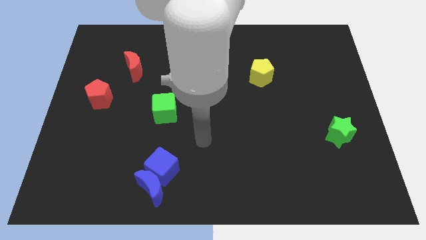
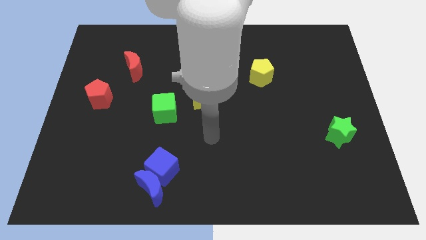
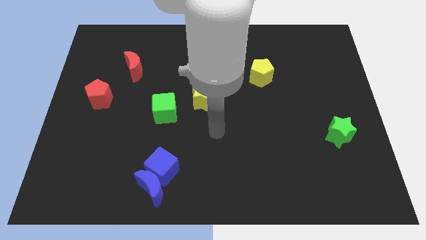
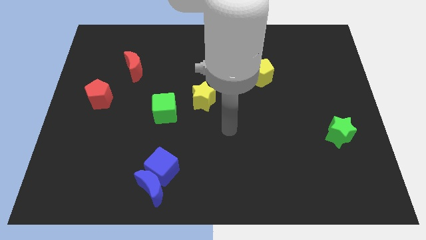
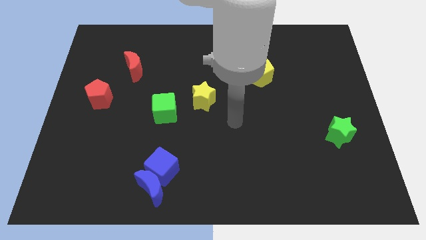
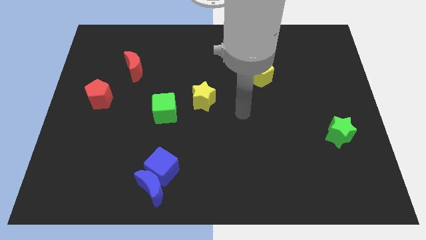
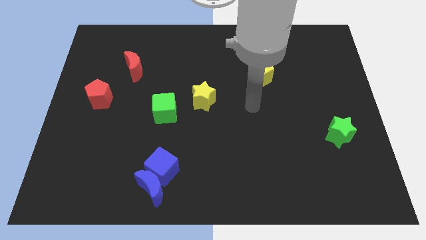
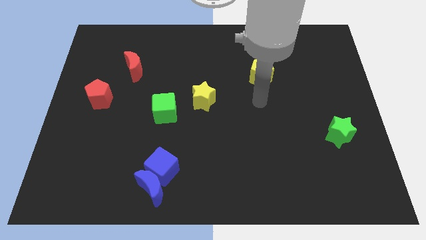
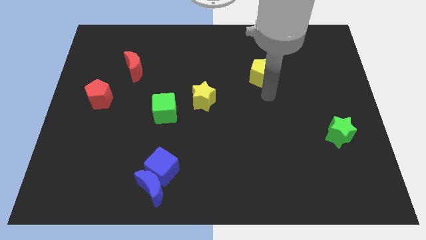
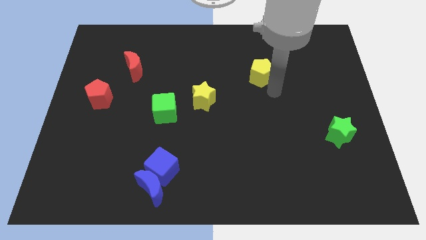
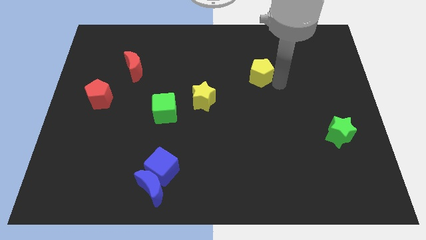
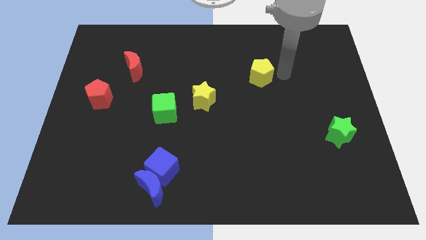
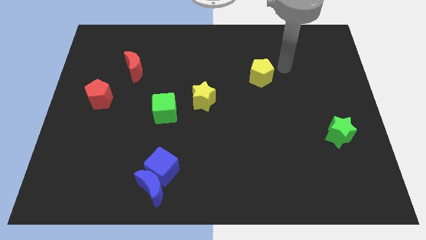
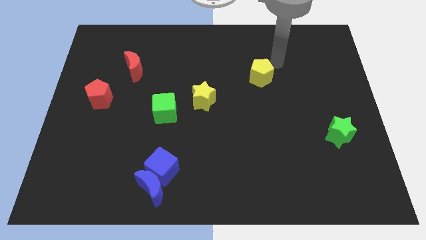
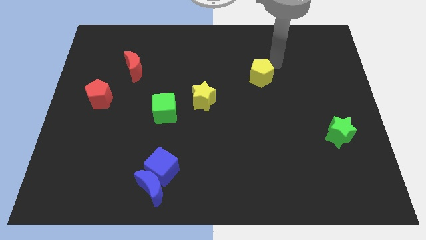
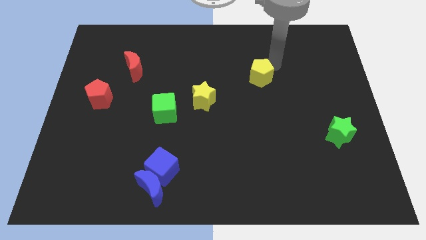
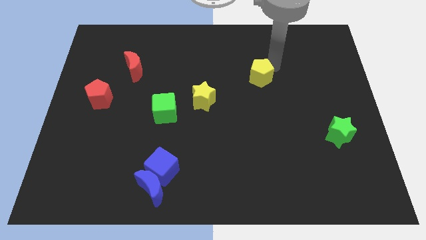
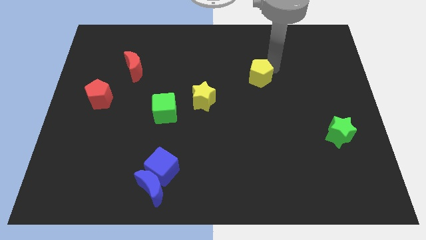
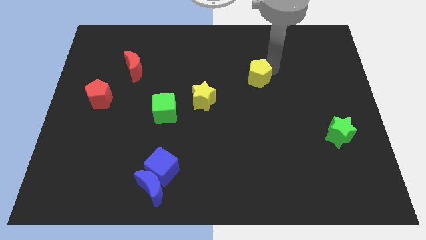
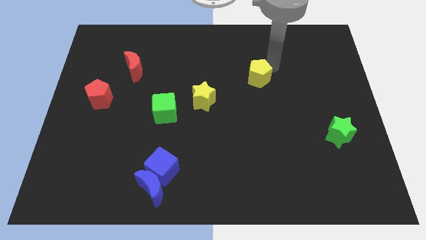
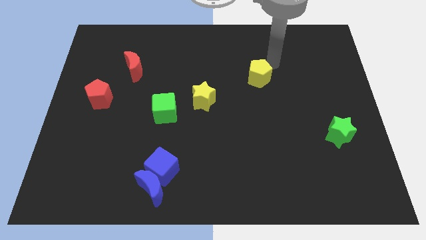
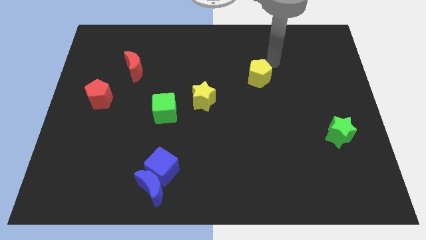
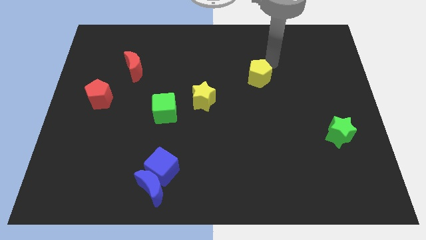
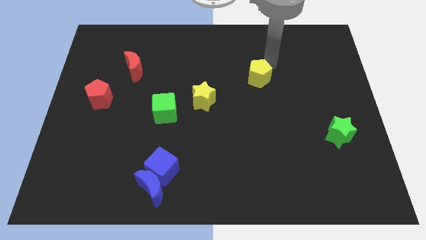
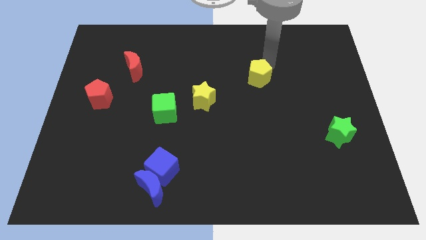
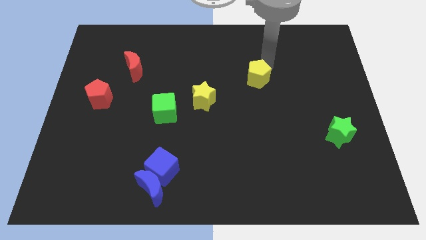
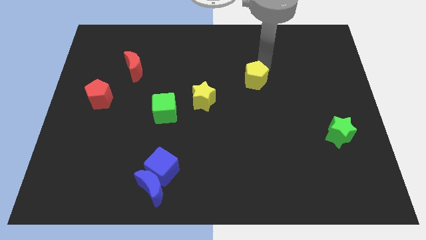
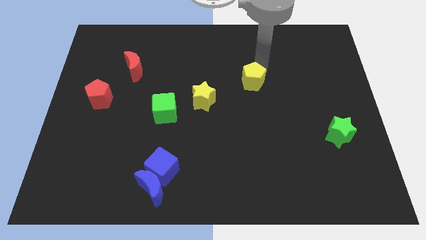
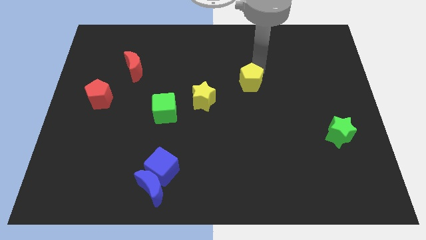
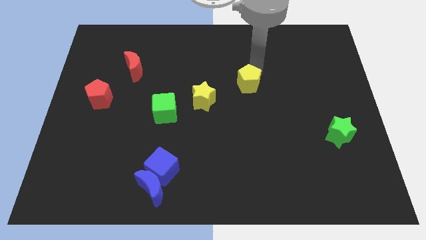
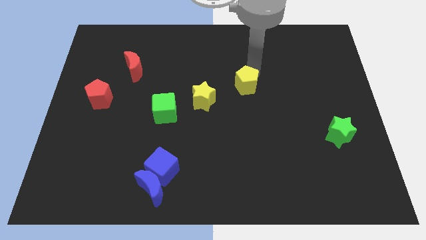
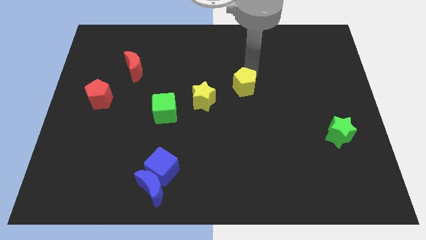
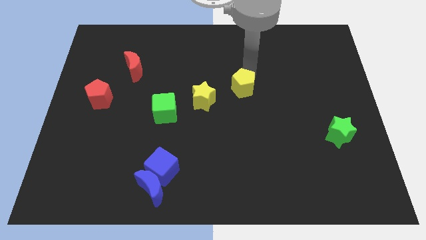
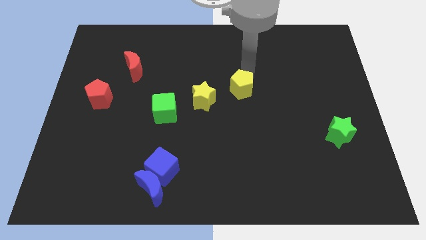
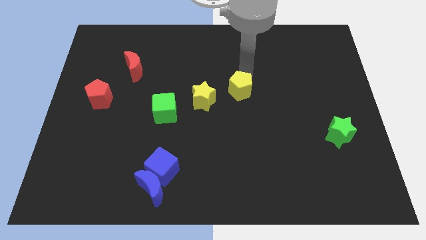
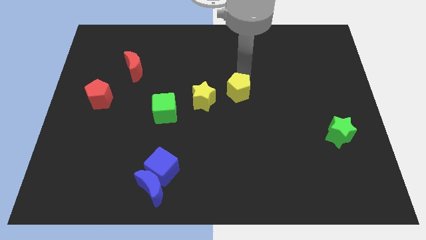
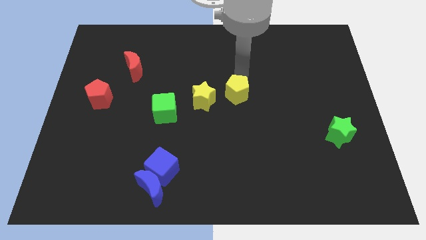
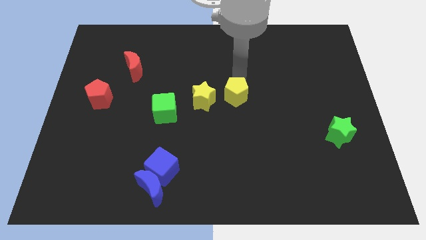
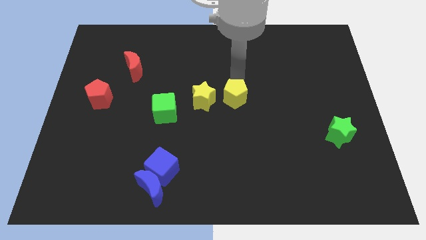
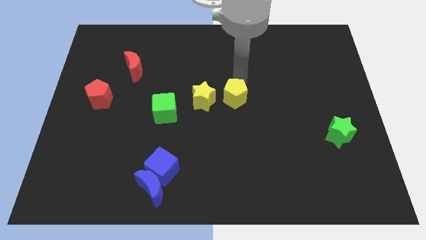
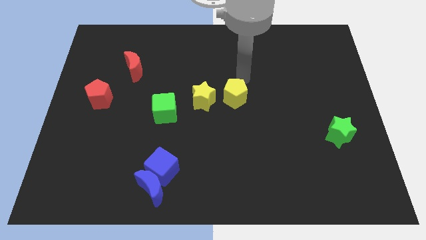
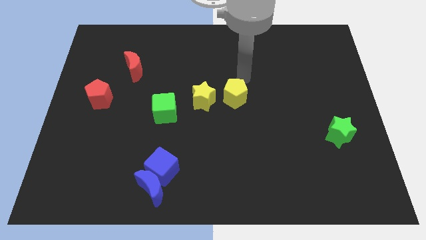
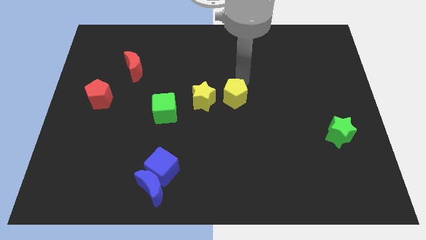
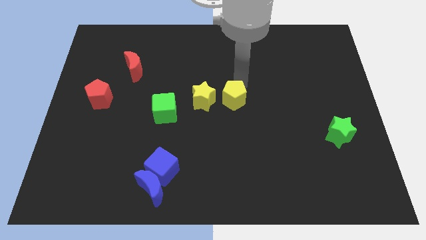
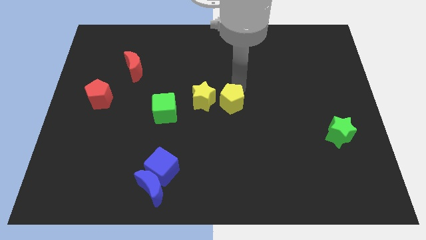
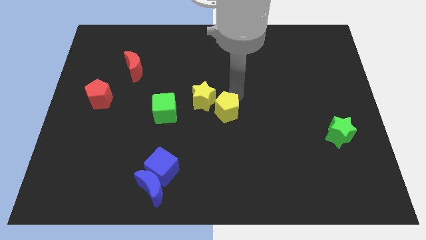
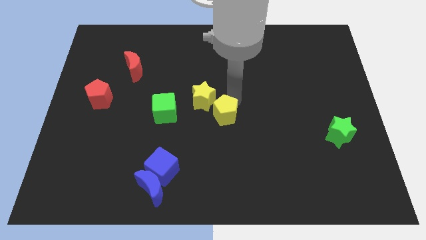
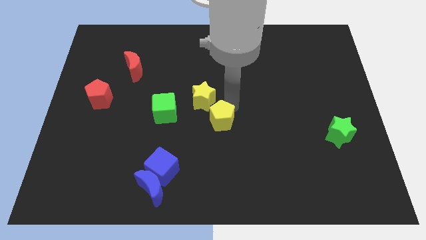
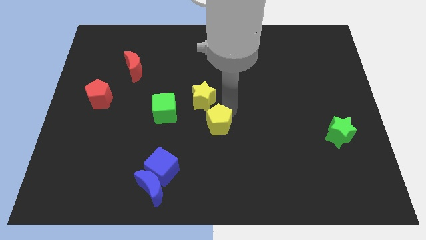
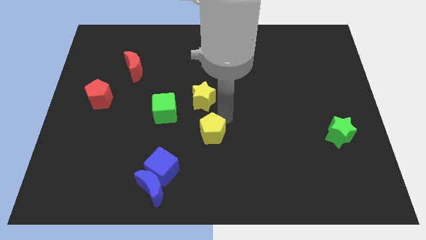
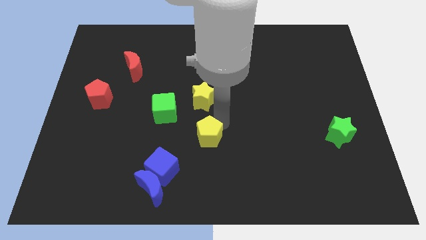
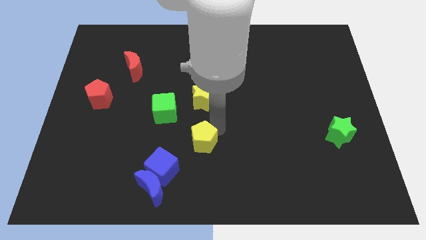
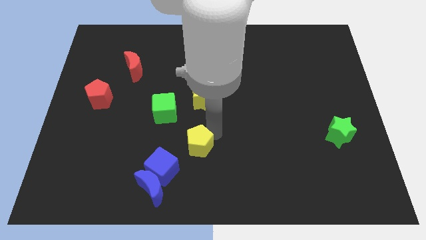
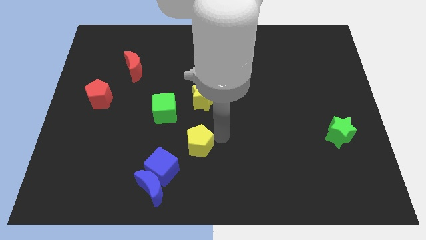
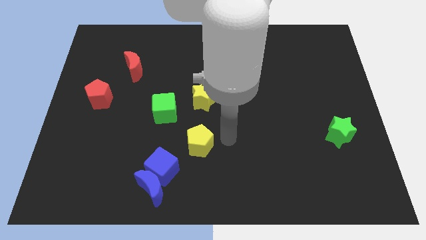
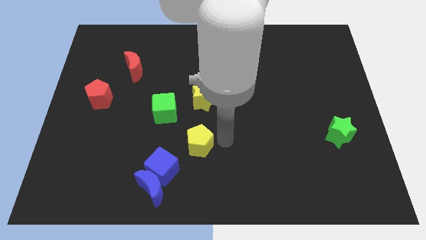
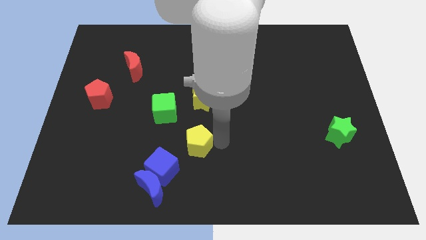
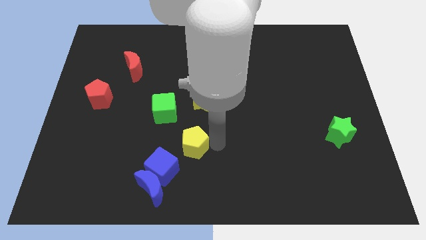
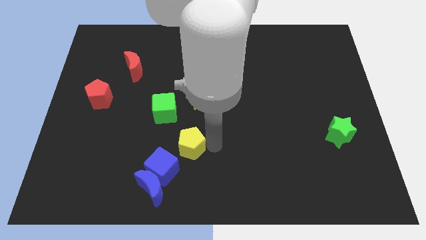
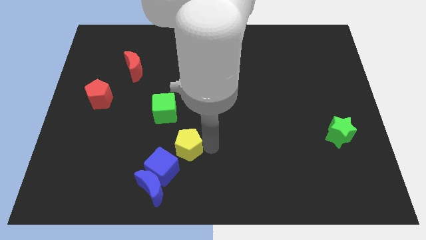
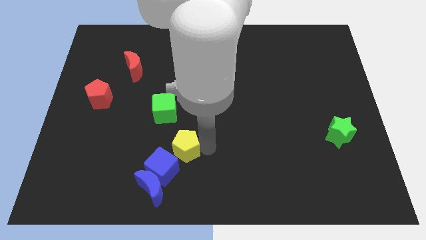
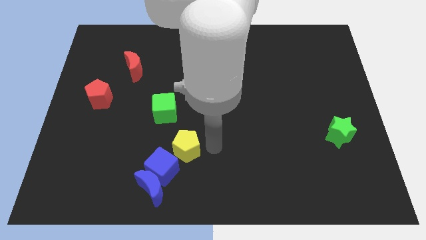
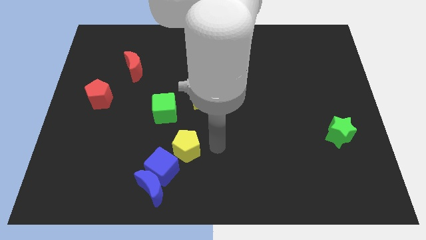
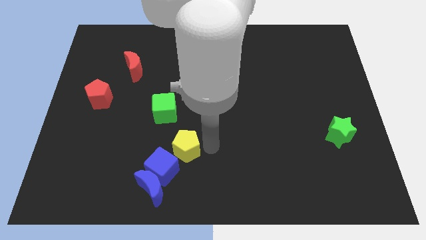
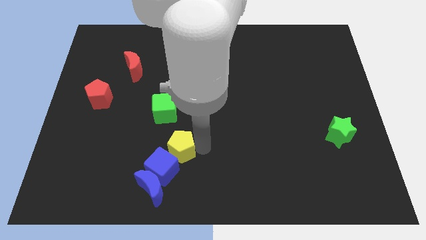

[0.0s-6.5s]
put the yellow pentagon to the bottom of the green cube
